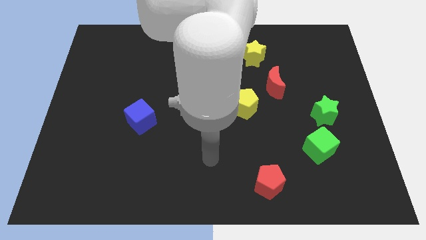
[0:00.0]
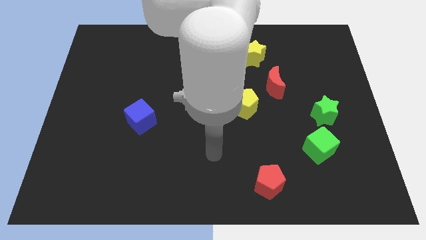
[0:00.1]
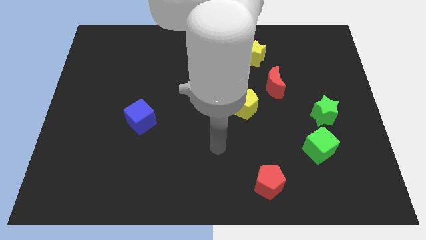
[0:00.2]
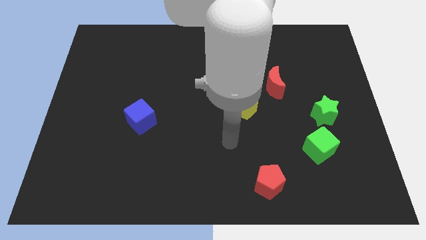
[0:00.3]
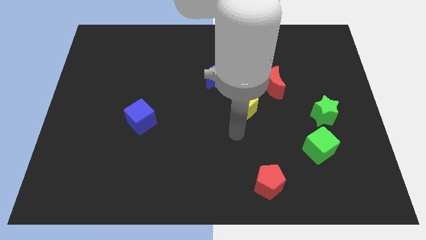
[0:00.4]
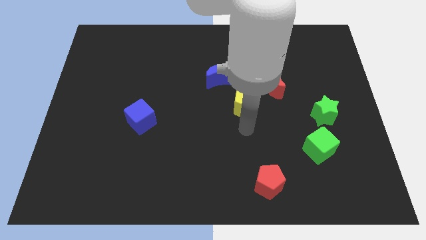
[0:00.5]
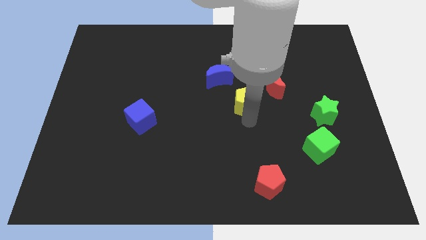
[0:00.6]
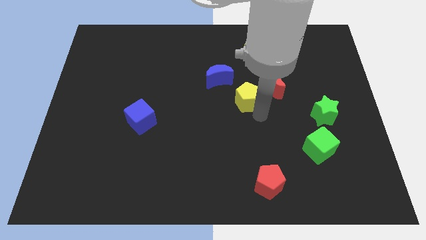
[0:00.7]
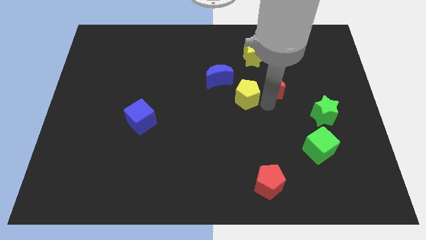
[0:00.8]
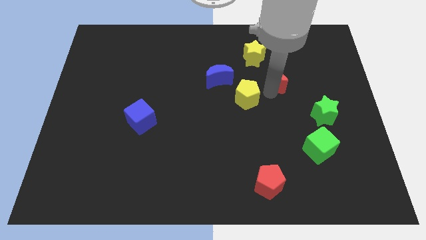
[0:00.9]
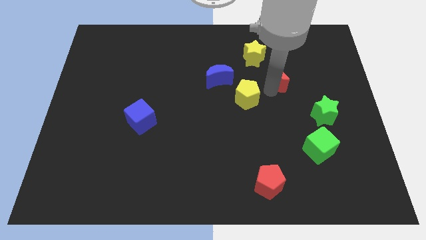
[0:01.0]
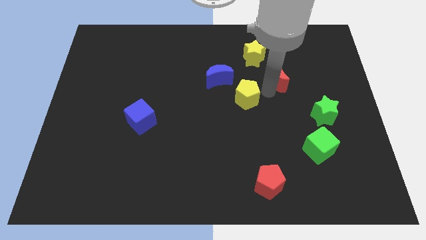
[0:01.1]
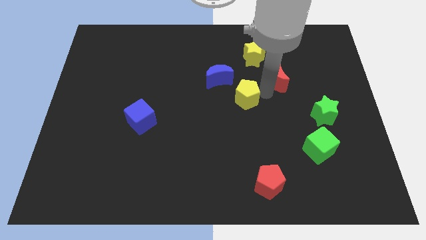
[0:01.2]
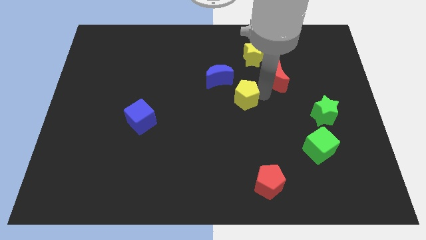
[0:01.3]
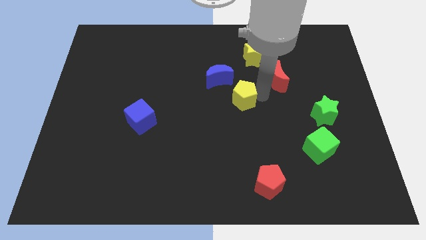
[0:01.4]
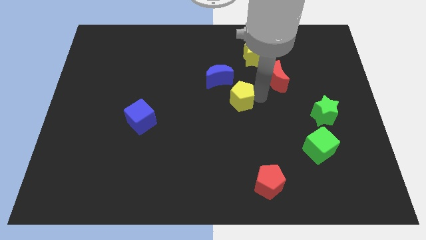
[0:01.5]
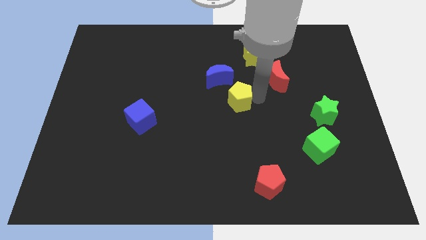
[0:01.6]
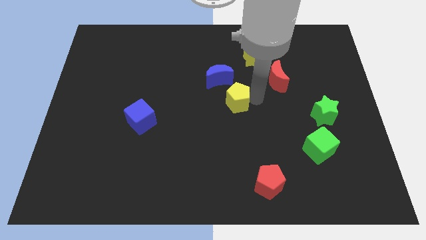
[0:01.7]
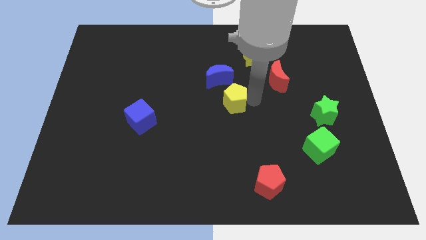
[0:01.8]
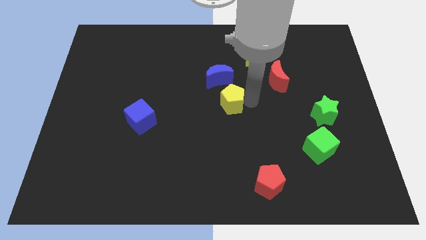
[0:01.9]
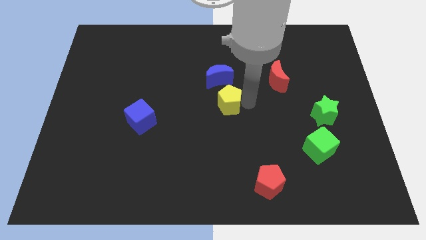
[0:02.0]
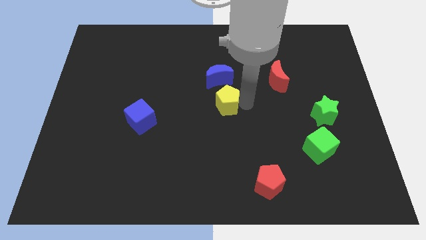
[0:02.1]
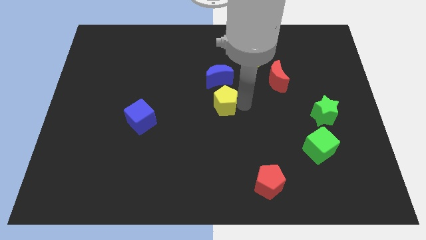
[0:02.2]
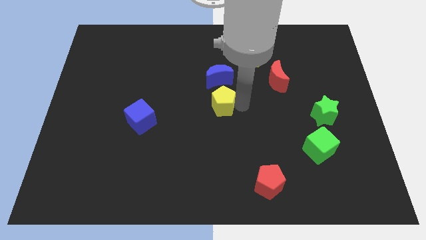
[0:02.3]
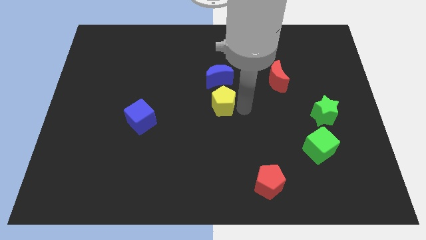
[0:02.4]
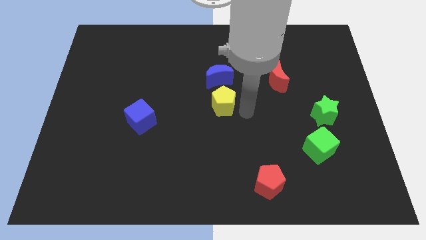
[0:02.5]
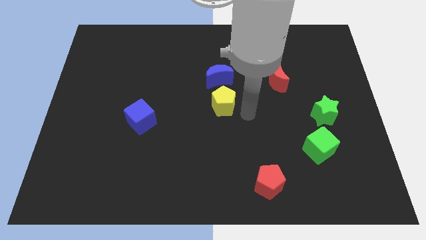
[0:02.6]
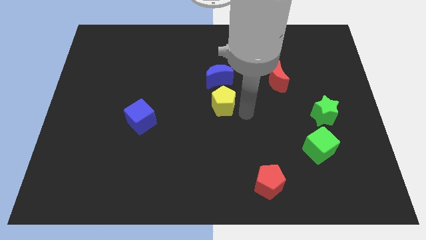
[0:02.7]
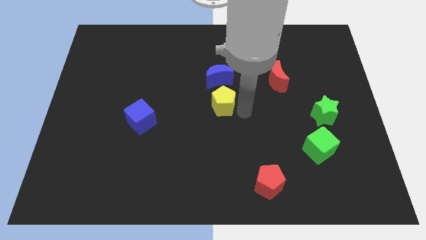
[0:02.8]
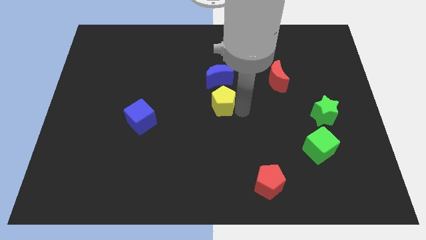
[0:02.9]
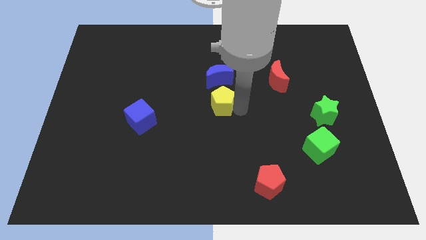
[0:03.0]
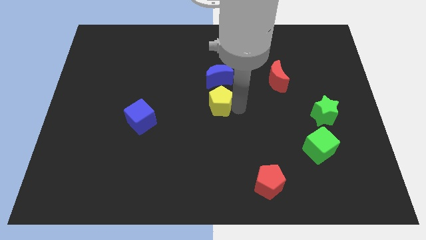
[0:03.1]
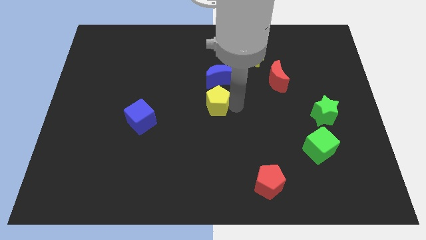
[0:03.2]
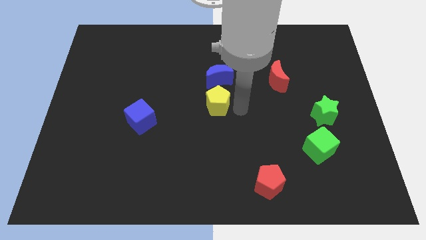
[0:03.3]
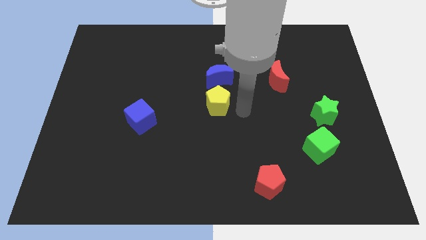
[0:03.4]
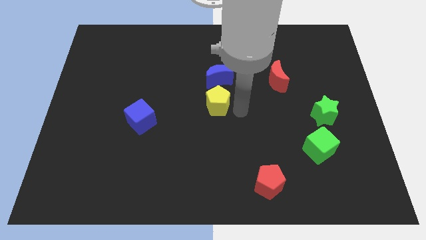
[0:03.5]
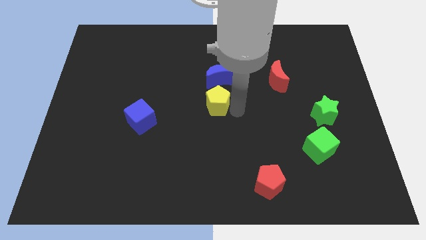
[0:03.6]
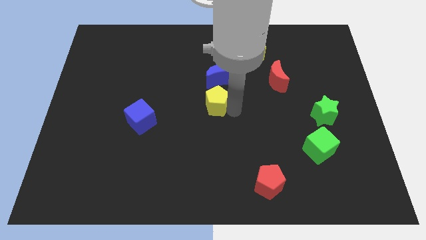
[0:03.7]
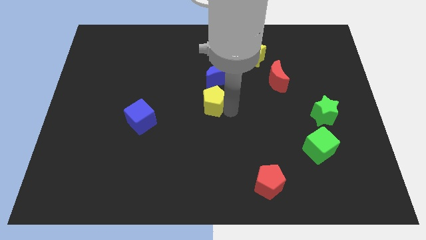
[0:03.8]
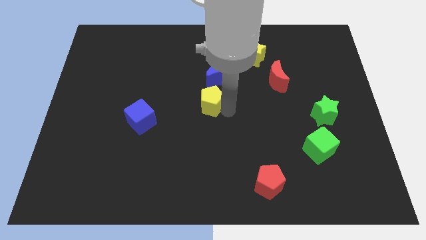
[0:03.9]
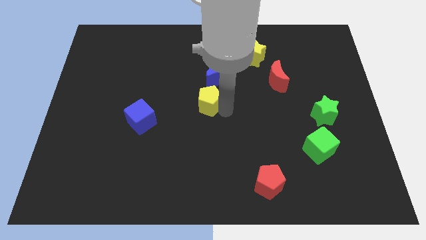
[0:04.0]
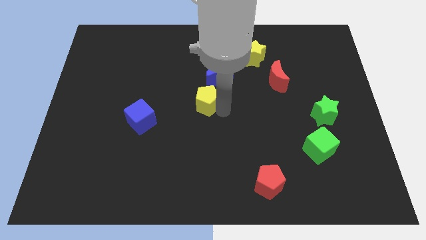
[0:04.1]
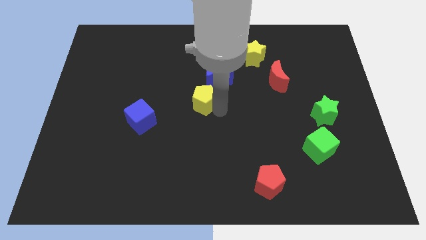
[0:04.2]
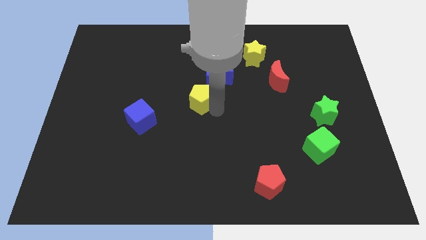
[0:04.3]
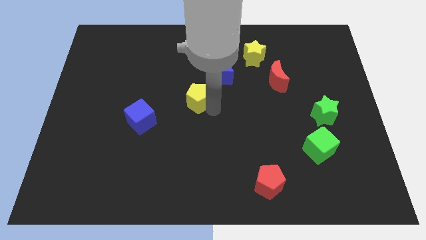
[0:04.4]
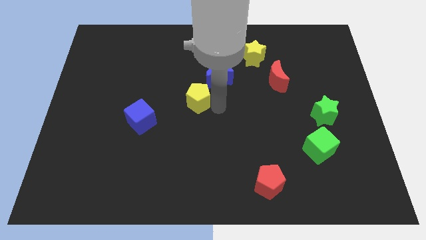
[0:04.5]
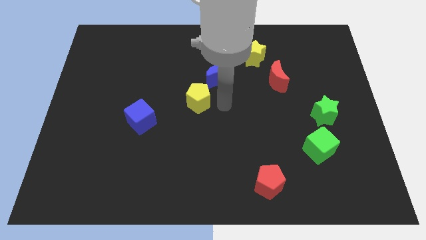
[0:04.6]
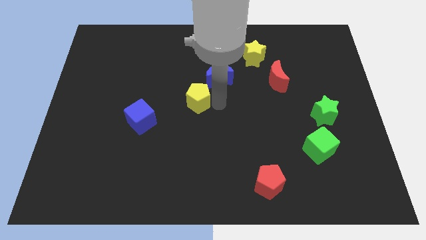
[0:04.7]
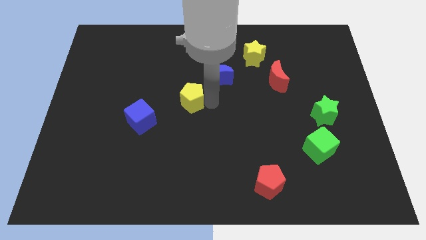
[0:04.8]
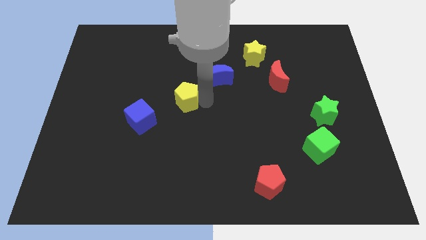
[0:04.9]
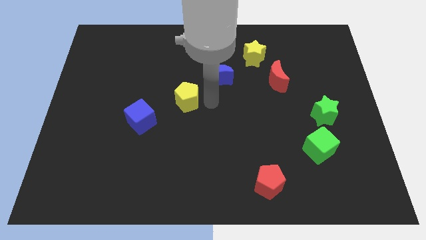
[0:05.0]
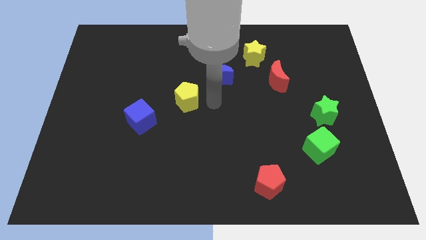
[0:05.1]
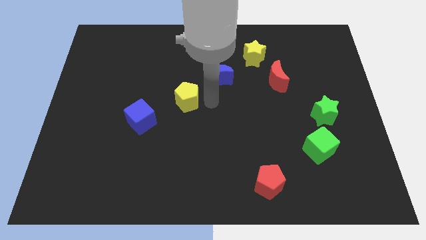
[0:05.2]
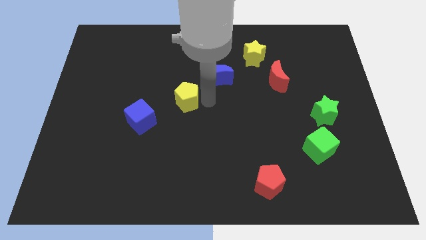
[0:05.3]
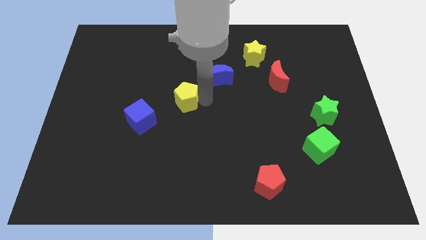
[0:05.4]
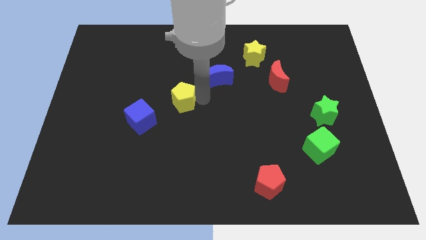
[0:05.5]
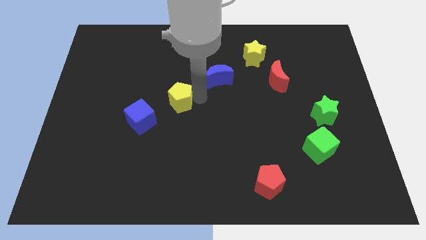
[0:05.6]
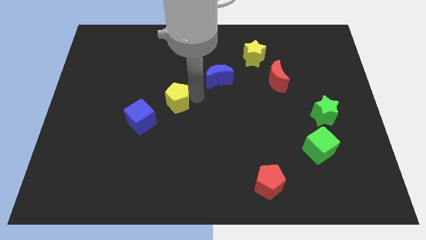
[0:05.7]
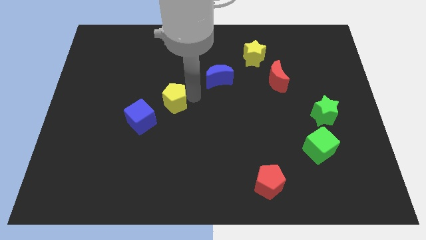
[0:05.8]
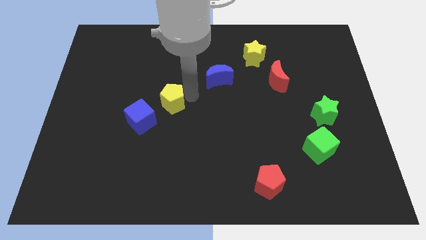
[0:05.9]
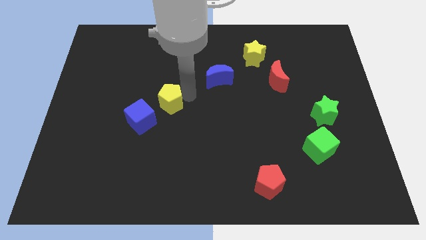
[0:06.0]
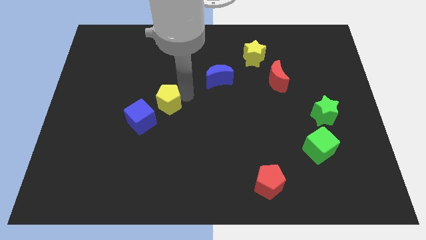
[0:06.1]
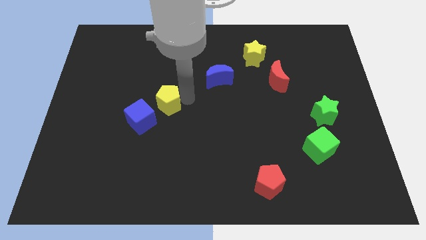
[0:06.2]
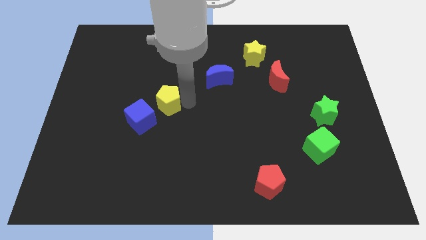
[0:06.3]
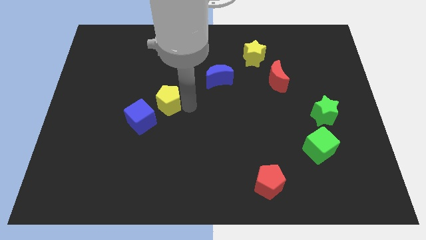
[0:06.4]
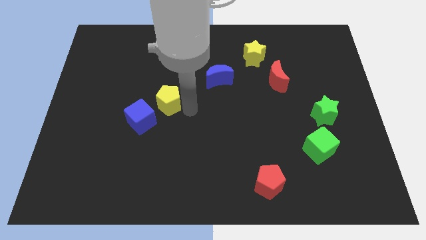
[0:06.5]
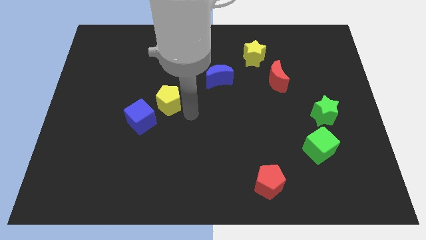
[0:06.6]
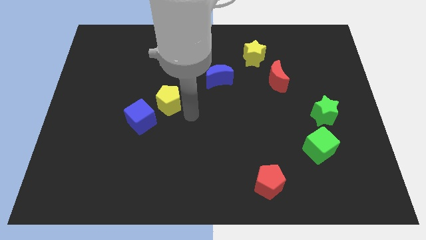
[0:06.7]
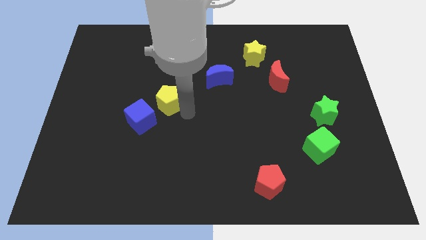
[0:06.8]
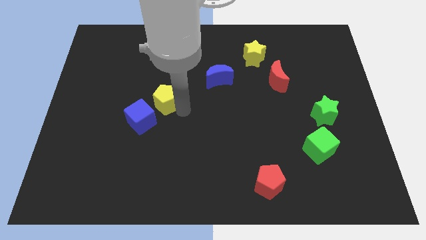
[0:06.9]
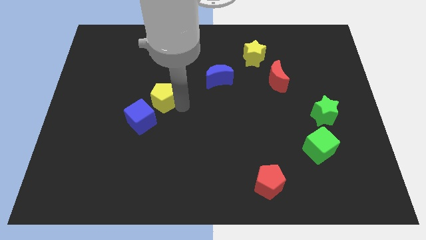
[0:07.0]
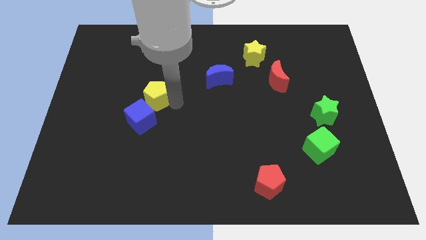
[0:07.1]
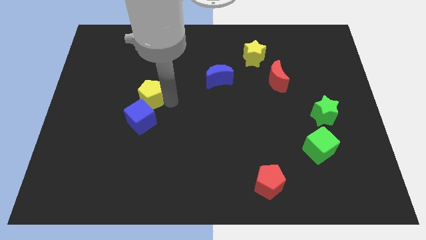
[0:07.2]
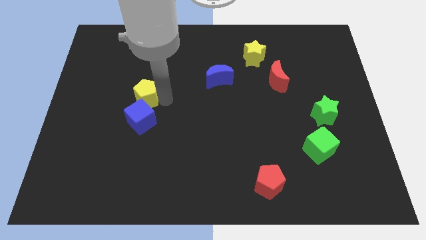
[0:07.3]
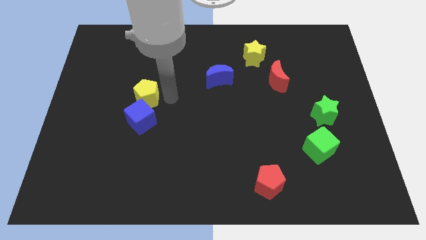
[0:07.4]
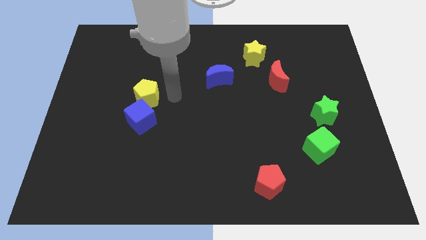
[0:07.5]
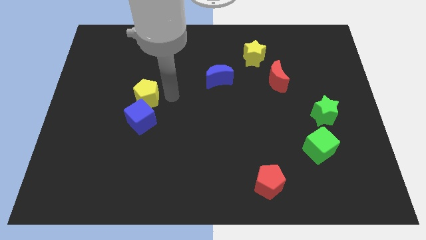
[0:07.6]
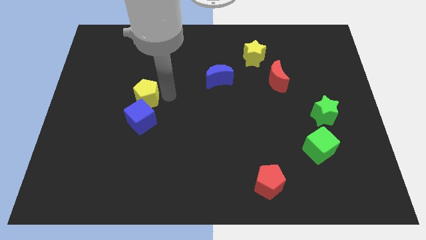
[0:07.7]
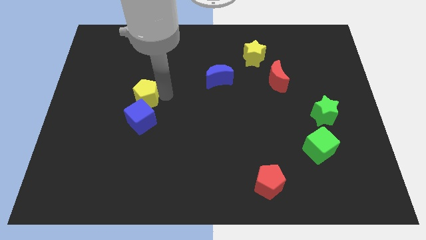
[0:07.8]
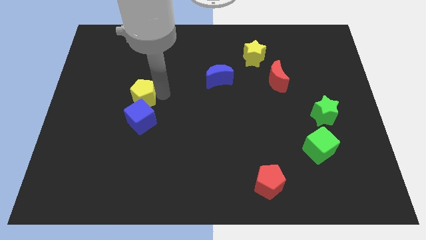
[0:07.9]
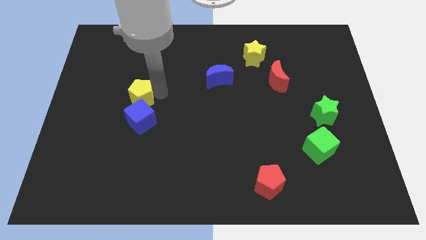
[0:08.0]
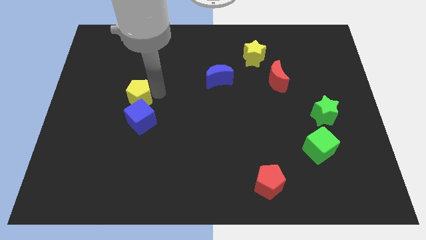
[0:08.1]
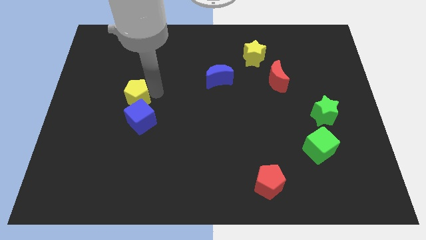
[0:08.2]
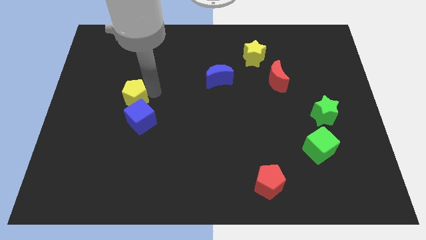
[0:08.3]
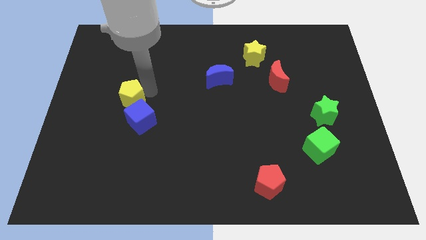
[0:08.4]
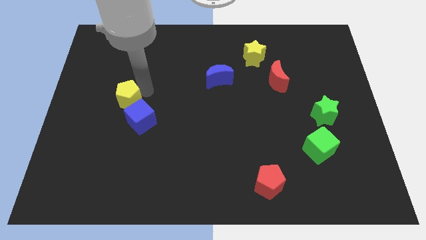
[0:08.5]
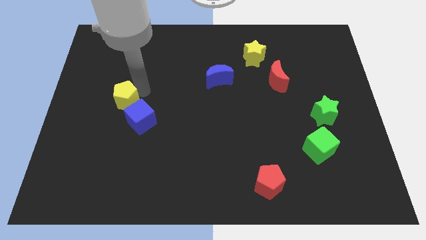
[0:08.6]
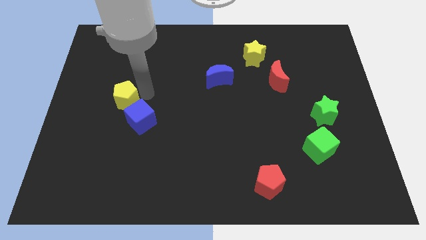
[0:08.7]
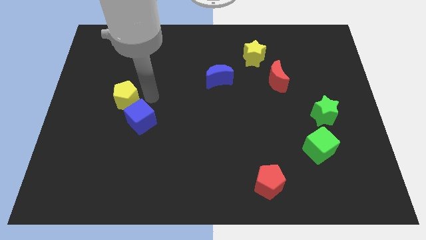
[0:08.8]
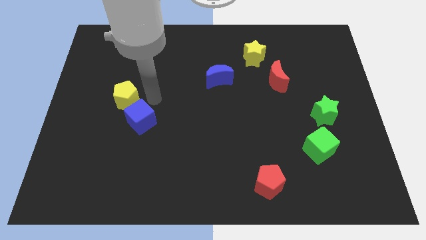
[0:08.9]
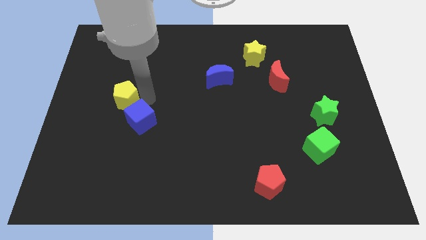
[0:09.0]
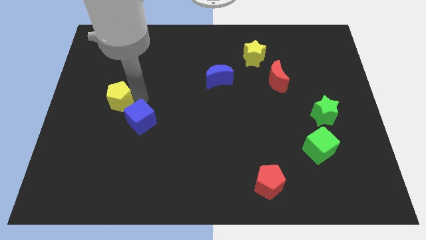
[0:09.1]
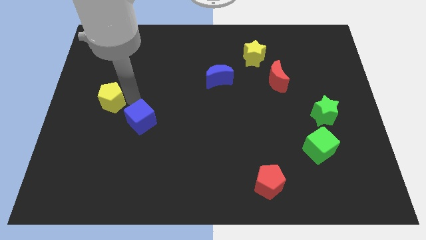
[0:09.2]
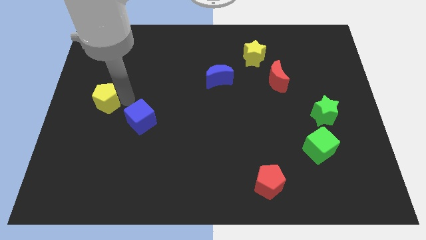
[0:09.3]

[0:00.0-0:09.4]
slide the yellow pentagon to the center left
